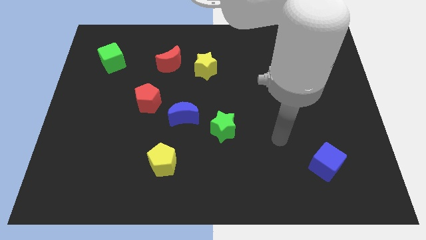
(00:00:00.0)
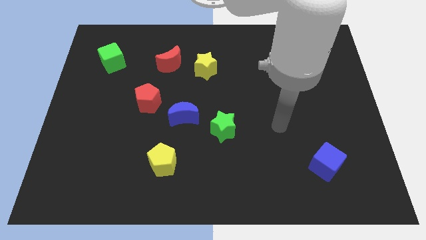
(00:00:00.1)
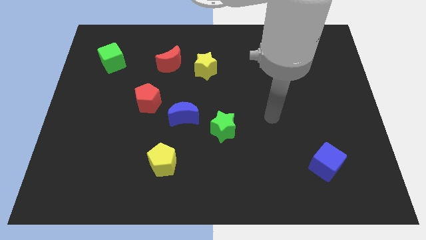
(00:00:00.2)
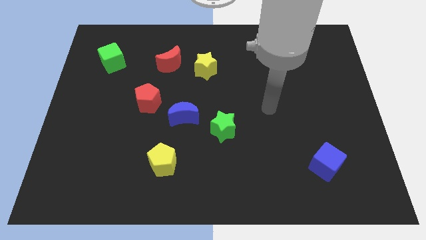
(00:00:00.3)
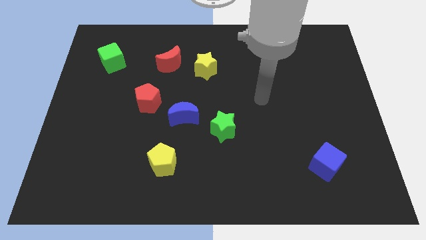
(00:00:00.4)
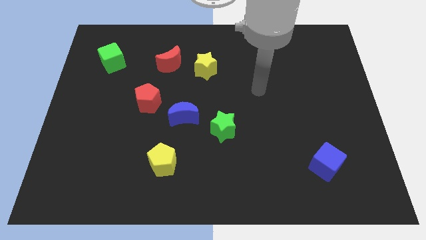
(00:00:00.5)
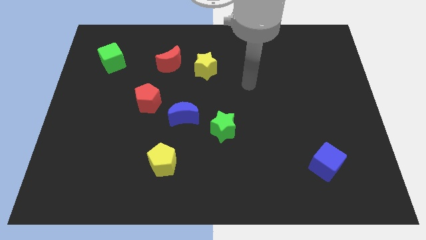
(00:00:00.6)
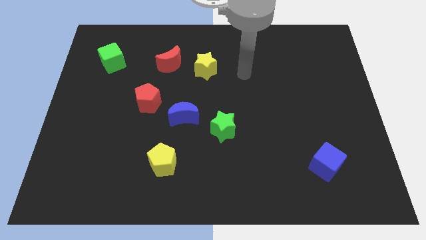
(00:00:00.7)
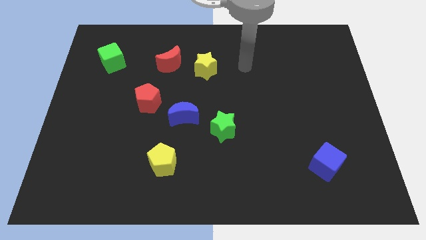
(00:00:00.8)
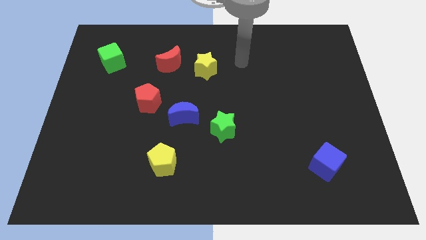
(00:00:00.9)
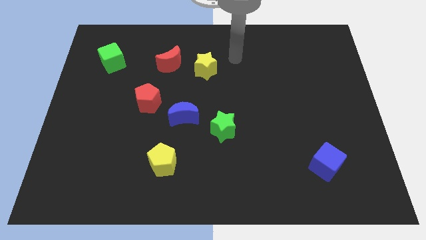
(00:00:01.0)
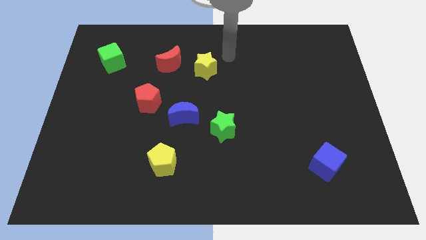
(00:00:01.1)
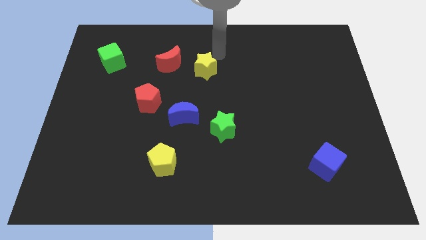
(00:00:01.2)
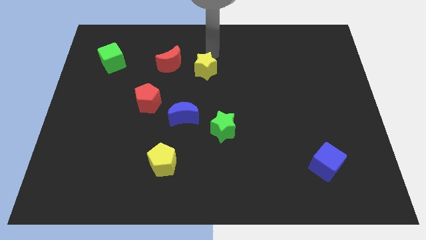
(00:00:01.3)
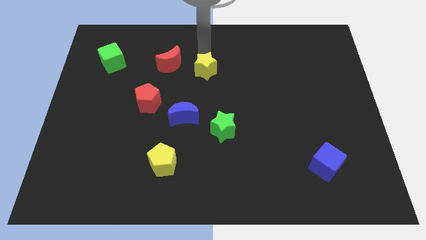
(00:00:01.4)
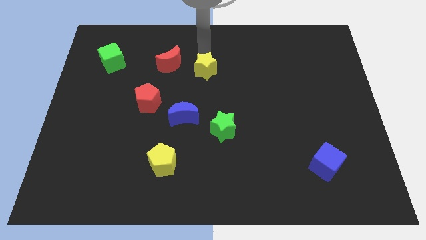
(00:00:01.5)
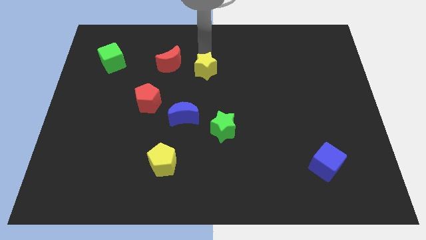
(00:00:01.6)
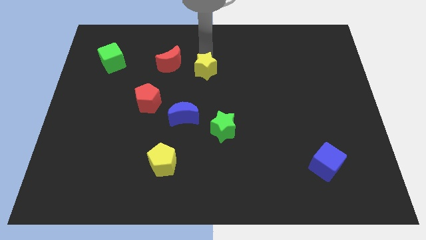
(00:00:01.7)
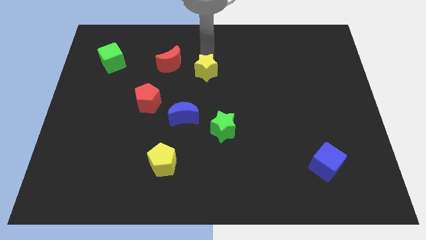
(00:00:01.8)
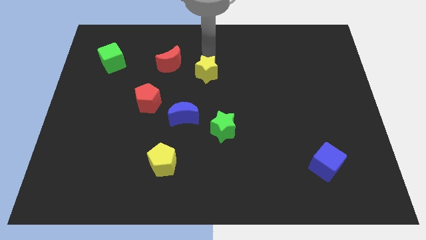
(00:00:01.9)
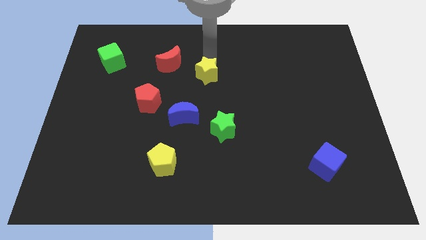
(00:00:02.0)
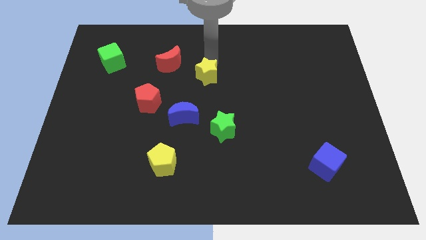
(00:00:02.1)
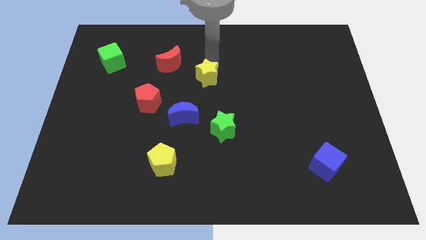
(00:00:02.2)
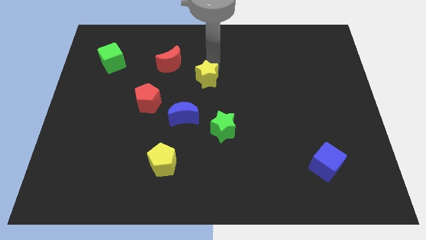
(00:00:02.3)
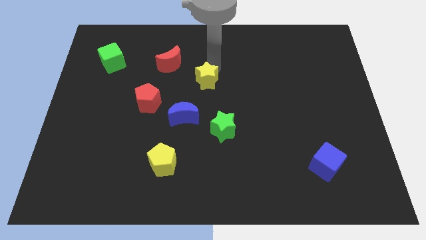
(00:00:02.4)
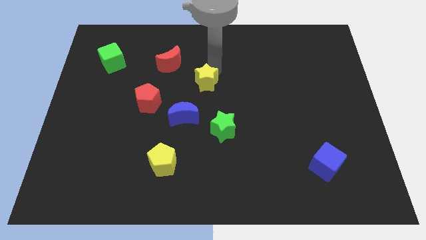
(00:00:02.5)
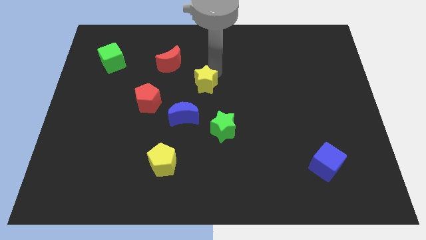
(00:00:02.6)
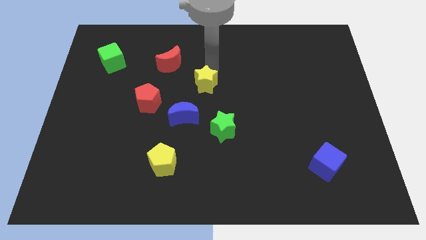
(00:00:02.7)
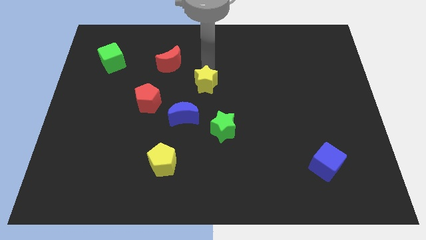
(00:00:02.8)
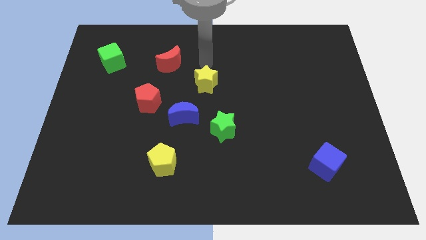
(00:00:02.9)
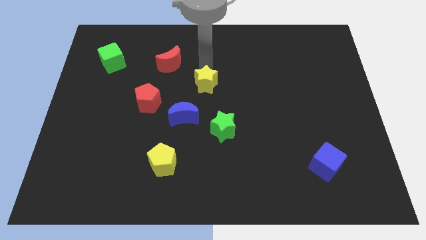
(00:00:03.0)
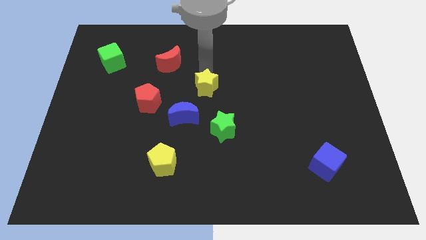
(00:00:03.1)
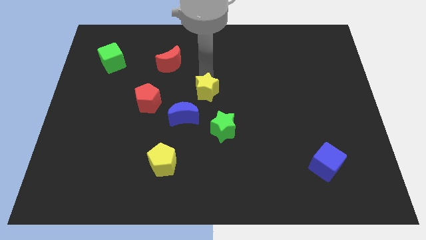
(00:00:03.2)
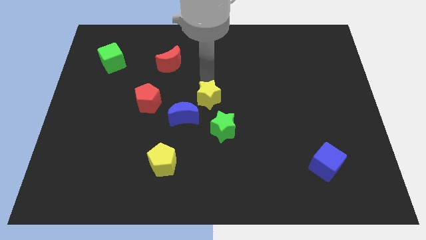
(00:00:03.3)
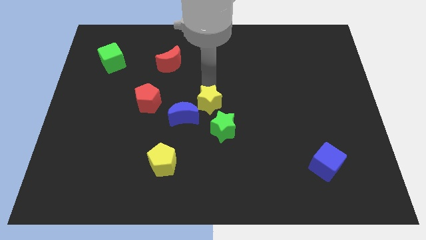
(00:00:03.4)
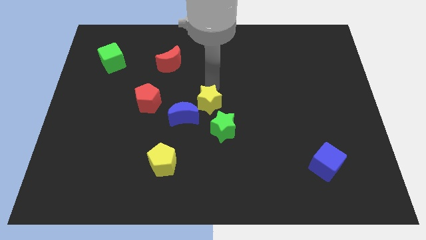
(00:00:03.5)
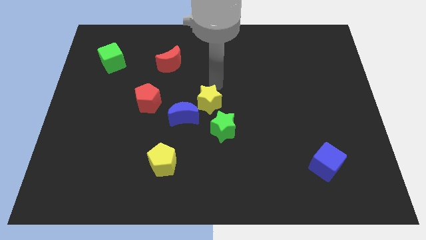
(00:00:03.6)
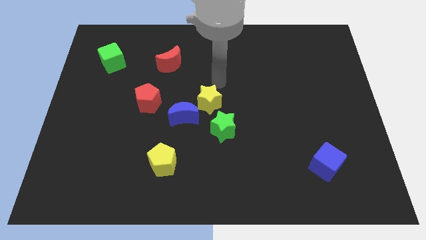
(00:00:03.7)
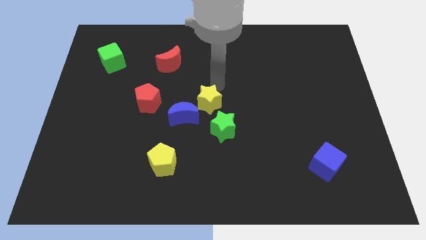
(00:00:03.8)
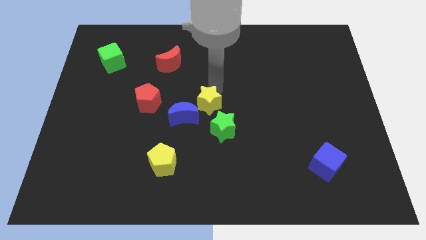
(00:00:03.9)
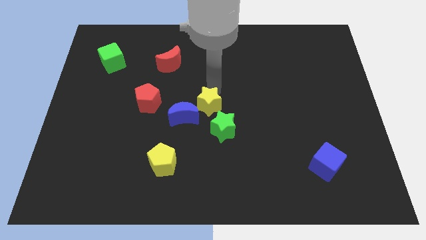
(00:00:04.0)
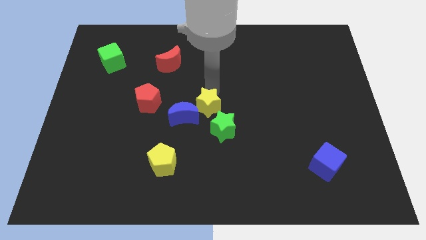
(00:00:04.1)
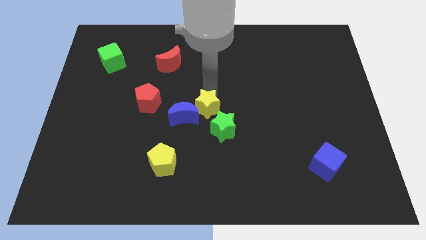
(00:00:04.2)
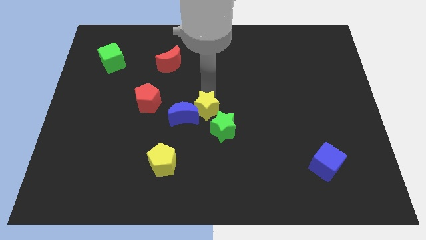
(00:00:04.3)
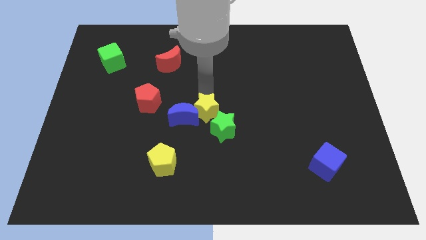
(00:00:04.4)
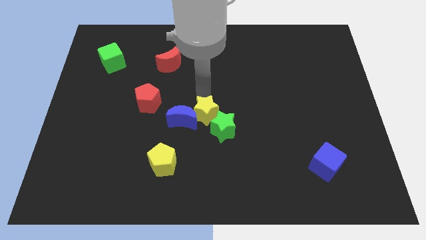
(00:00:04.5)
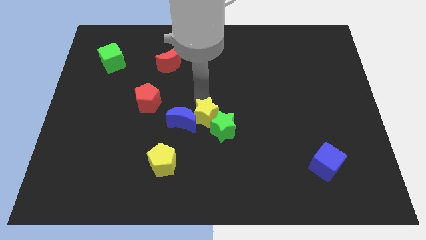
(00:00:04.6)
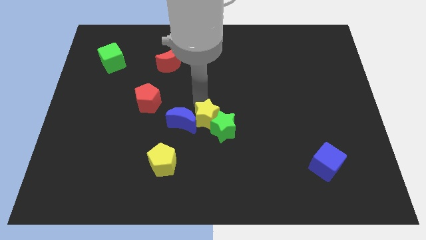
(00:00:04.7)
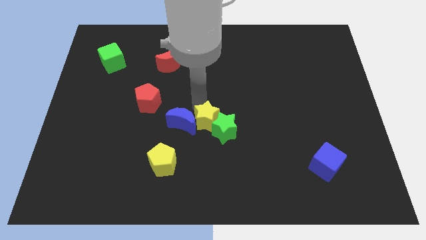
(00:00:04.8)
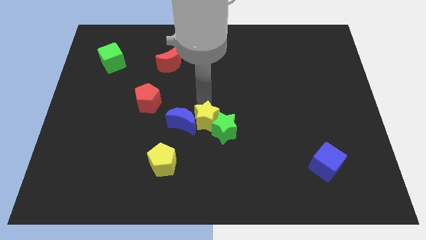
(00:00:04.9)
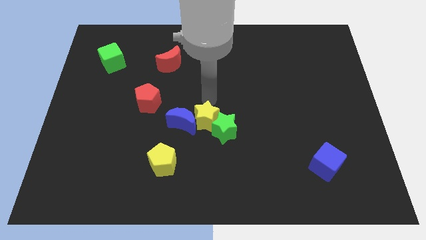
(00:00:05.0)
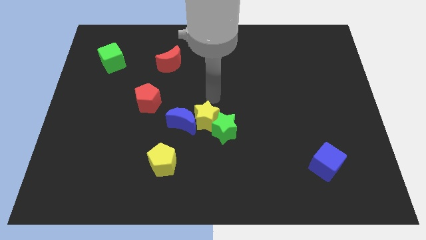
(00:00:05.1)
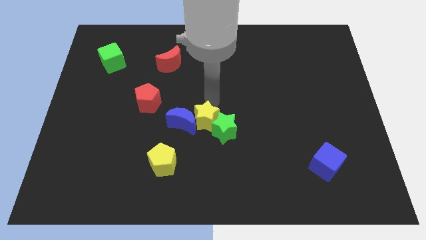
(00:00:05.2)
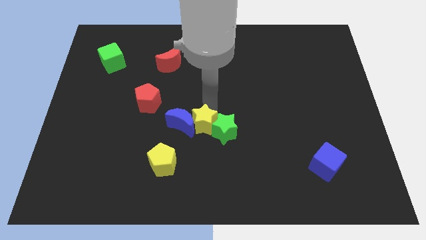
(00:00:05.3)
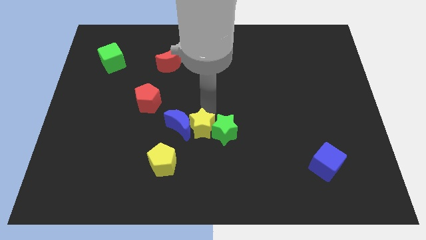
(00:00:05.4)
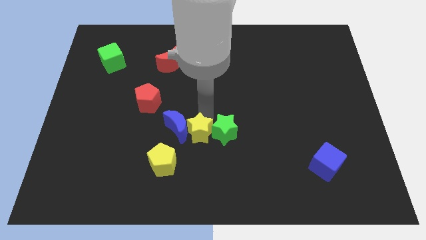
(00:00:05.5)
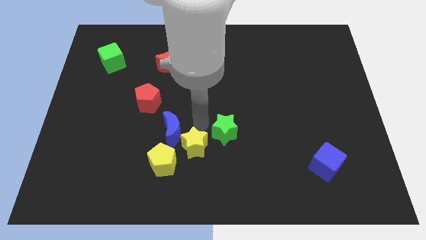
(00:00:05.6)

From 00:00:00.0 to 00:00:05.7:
move the yellow star down

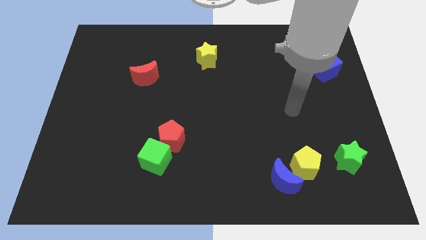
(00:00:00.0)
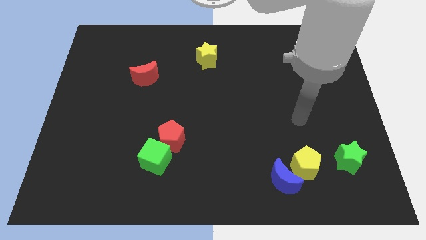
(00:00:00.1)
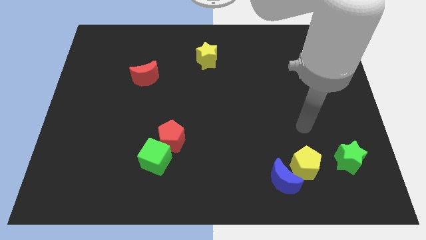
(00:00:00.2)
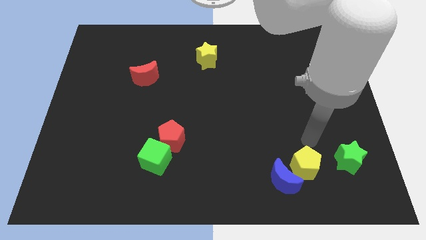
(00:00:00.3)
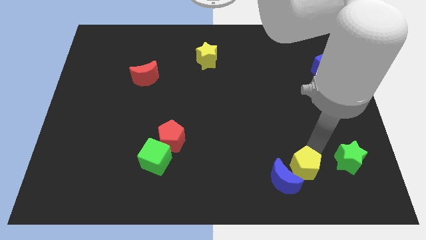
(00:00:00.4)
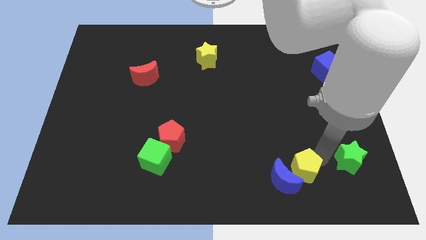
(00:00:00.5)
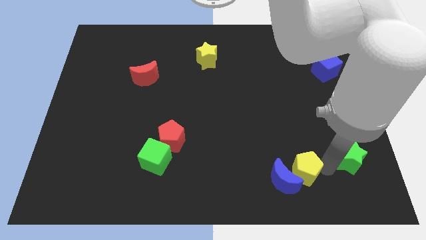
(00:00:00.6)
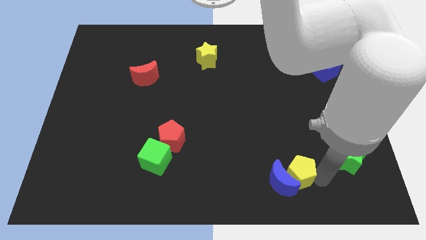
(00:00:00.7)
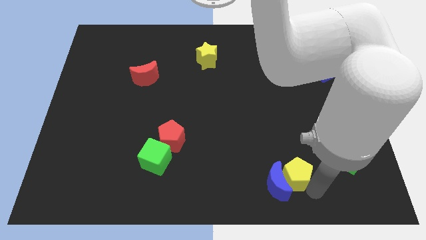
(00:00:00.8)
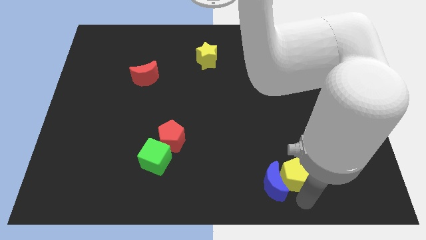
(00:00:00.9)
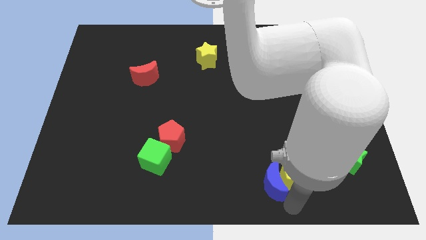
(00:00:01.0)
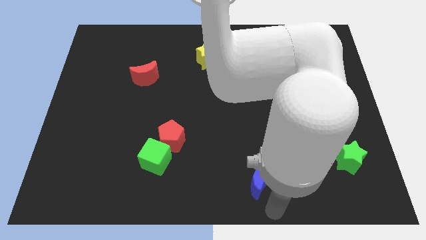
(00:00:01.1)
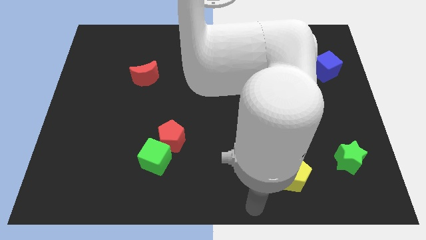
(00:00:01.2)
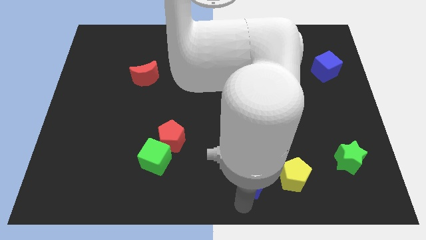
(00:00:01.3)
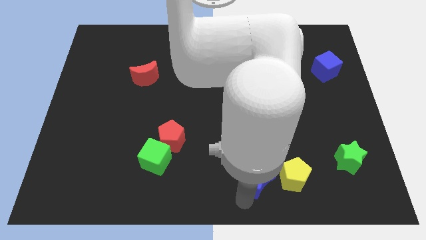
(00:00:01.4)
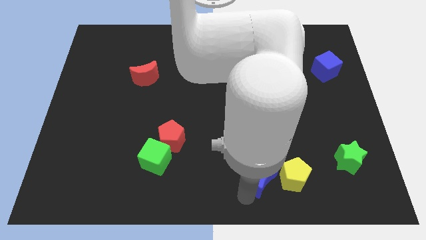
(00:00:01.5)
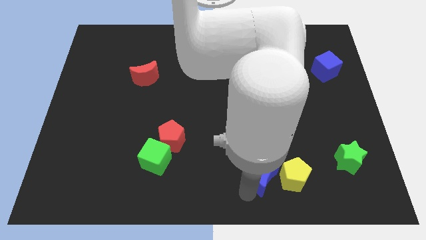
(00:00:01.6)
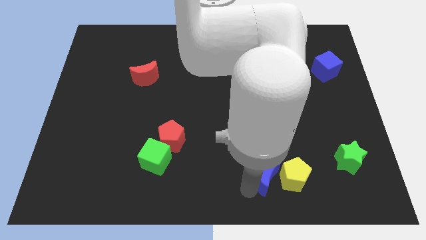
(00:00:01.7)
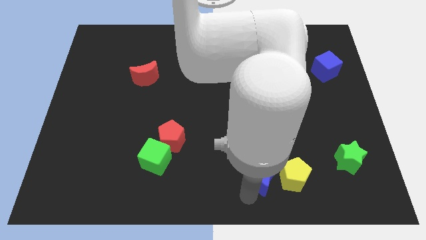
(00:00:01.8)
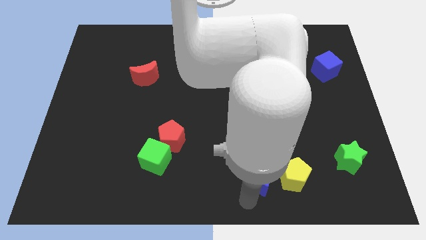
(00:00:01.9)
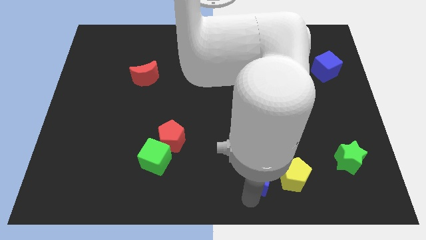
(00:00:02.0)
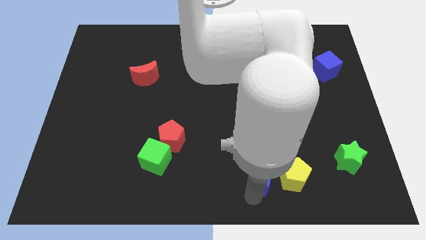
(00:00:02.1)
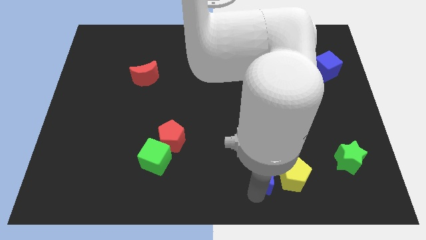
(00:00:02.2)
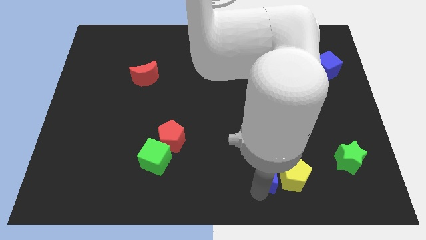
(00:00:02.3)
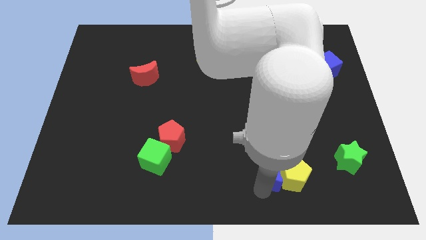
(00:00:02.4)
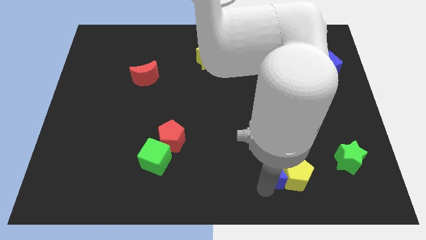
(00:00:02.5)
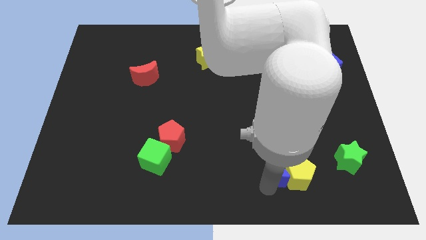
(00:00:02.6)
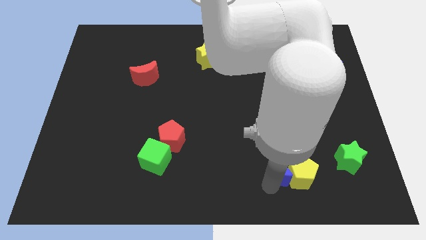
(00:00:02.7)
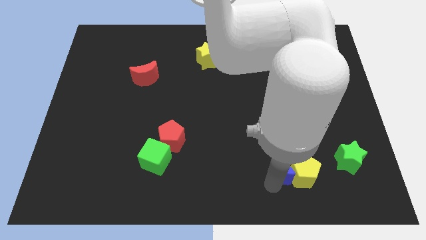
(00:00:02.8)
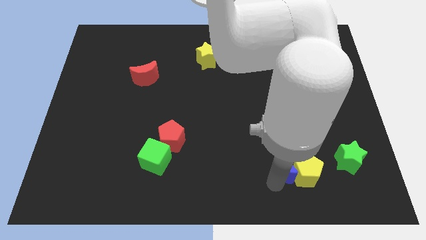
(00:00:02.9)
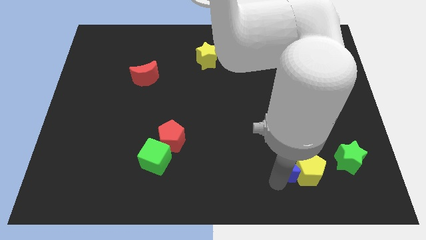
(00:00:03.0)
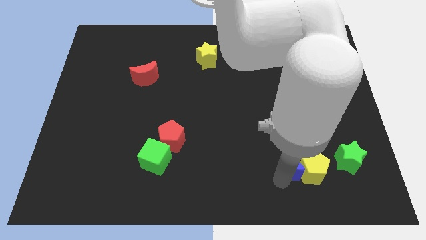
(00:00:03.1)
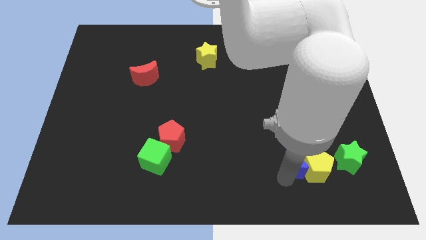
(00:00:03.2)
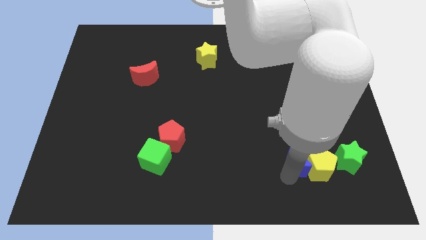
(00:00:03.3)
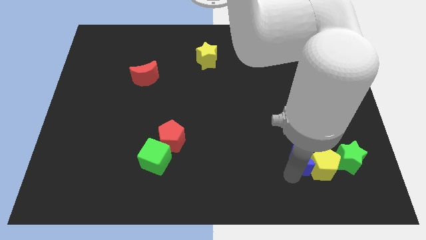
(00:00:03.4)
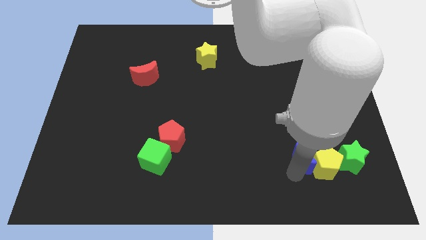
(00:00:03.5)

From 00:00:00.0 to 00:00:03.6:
slide the blue moon somewhat up and right diagonally
